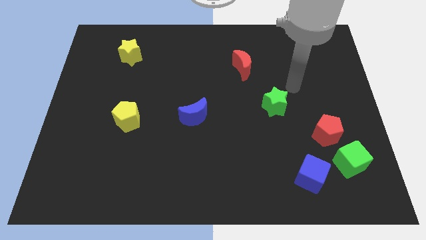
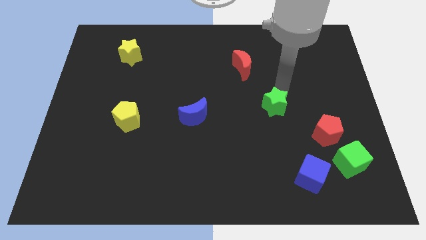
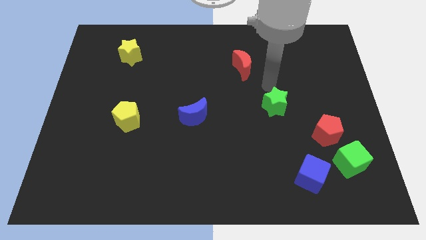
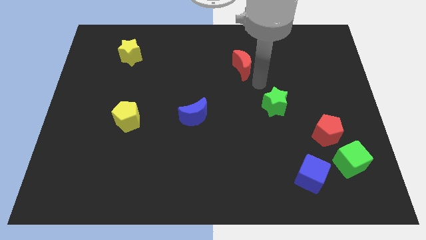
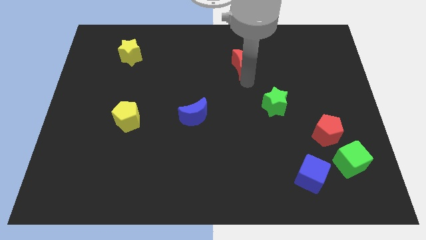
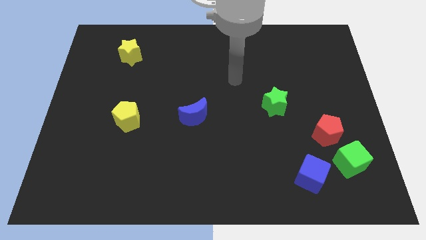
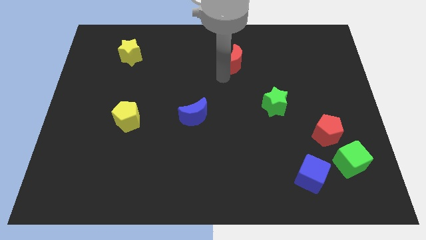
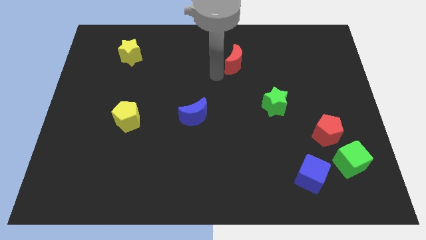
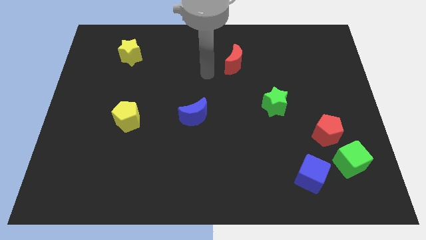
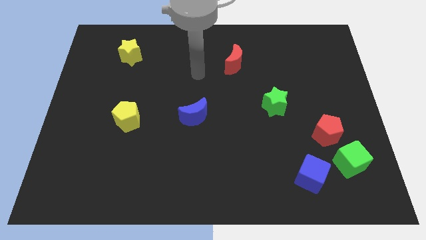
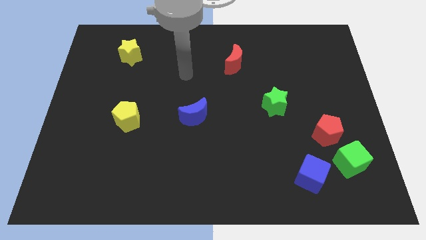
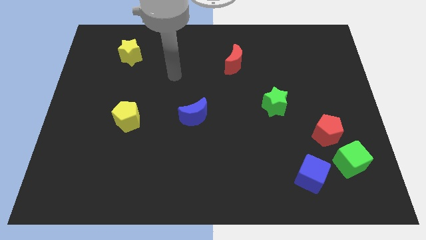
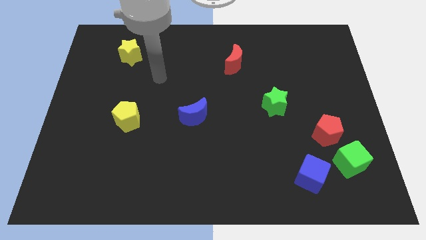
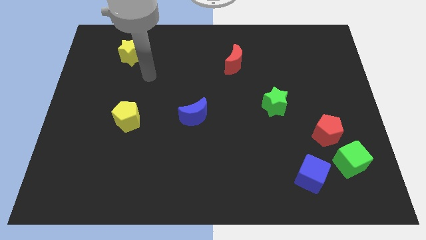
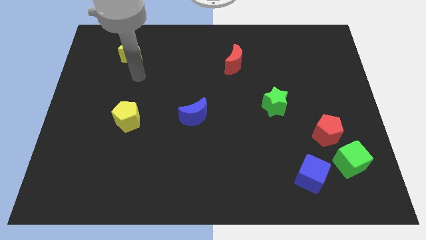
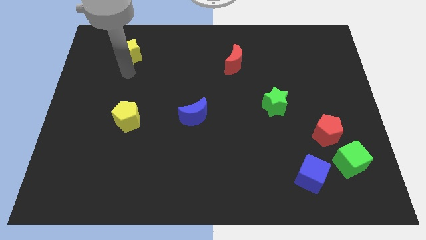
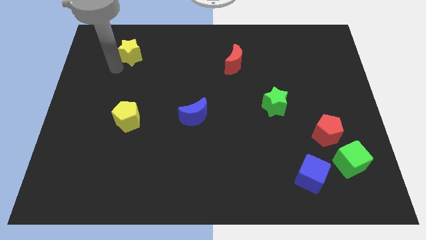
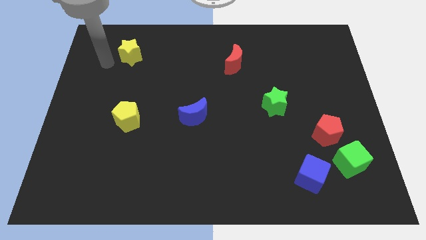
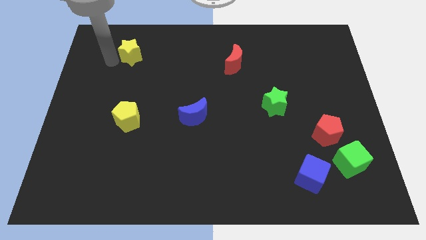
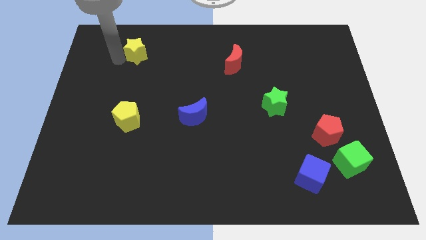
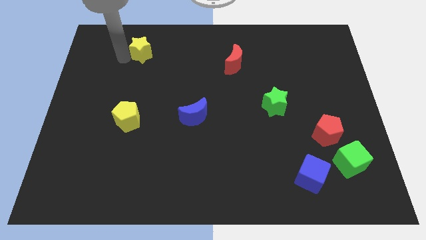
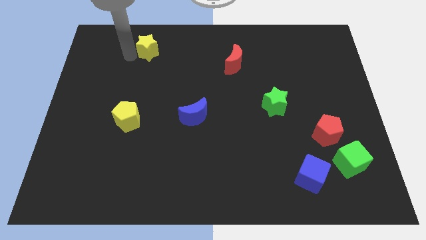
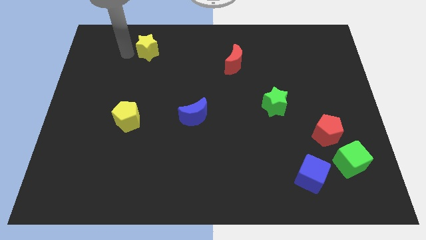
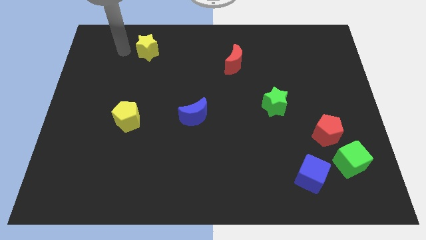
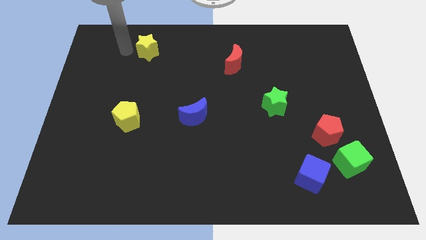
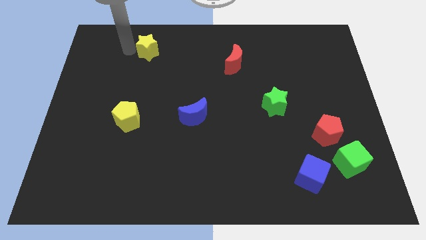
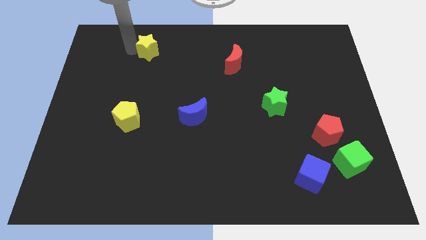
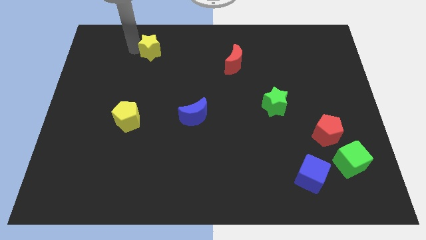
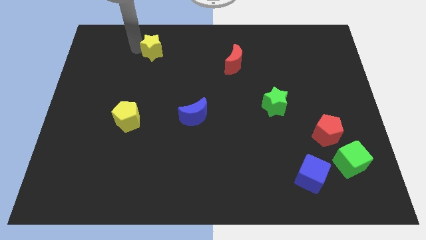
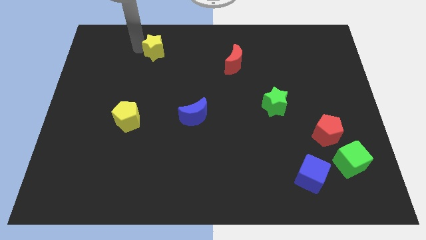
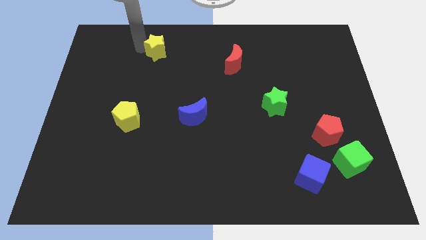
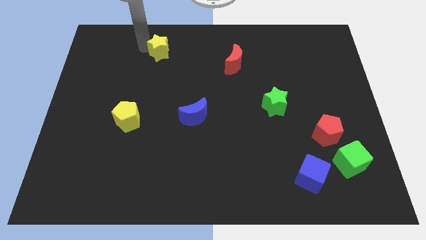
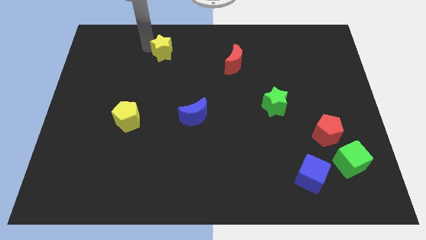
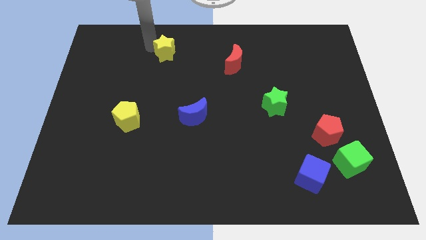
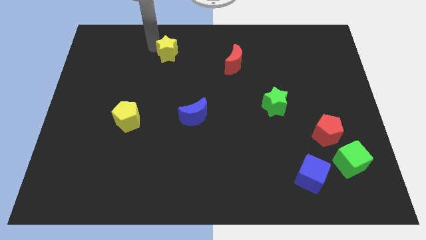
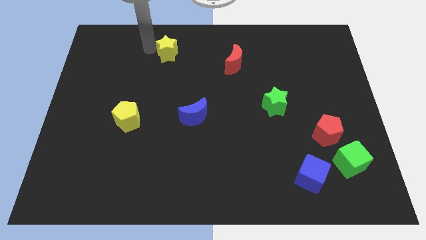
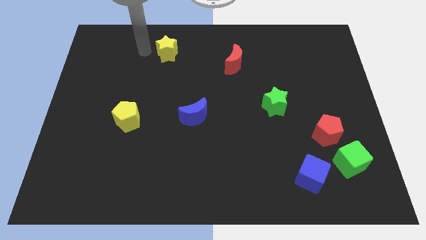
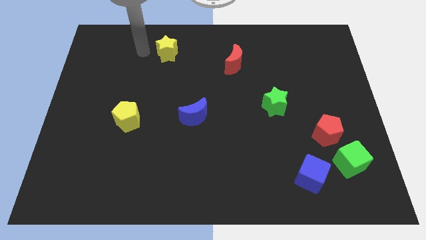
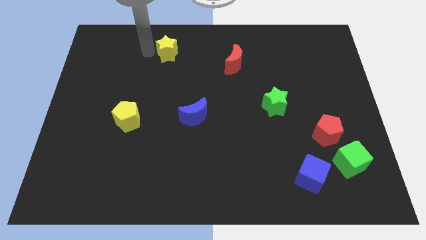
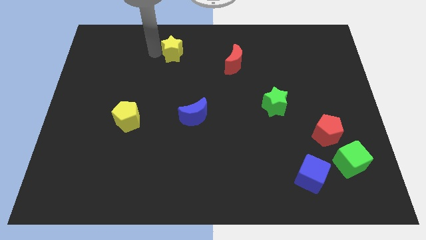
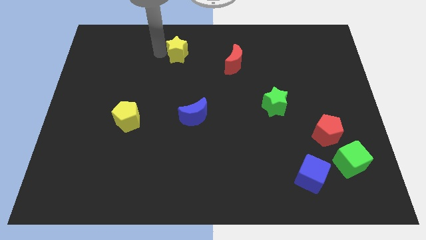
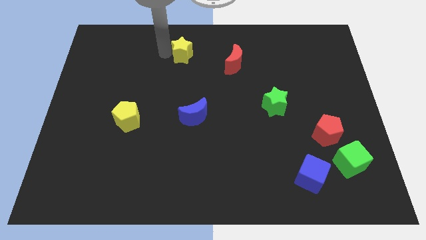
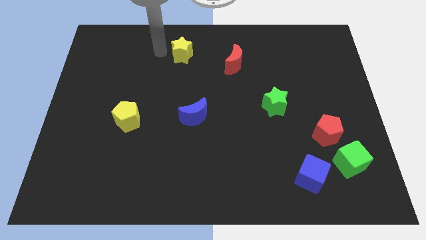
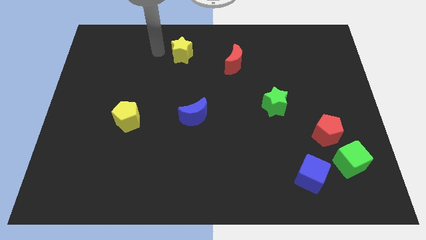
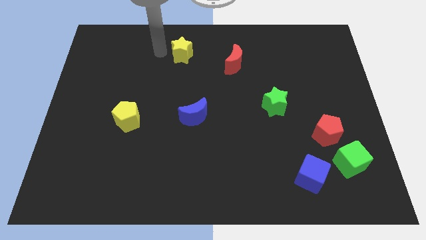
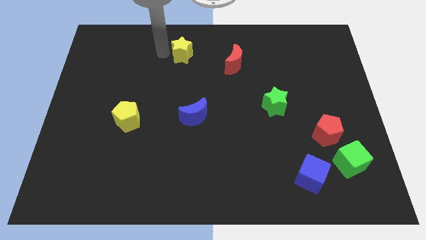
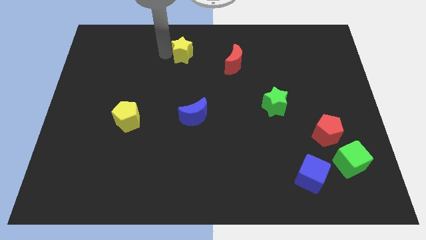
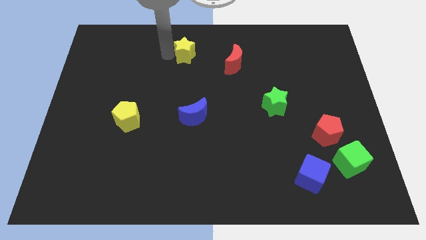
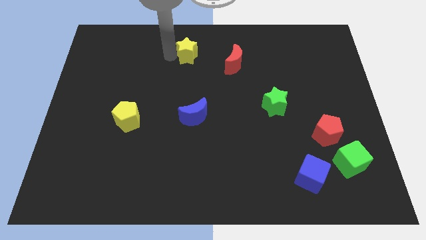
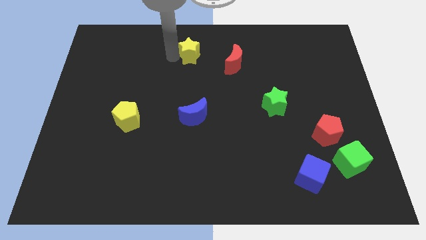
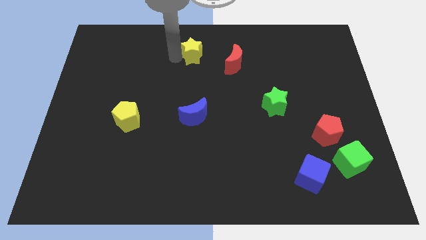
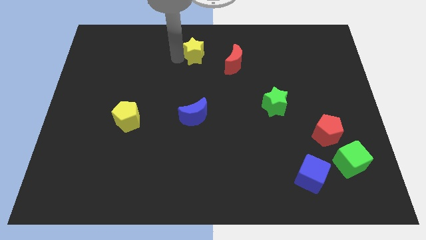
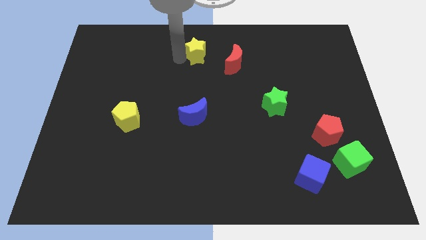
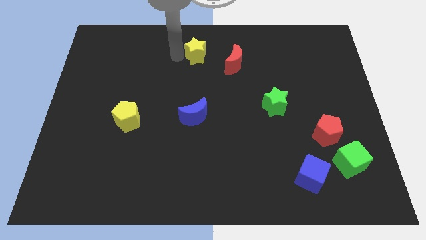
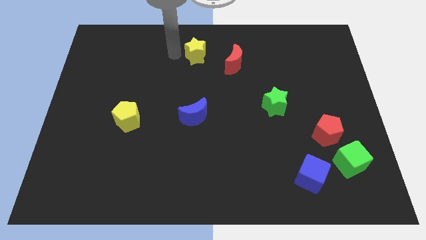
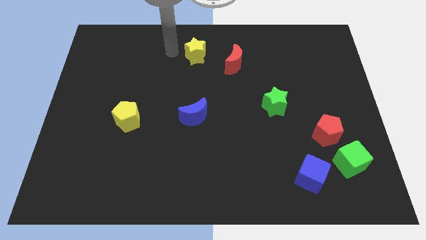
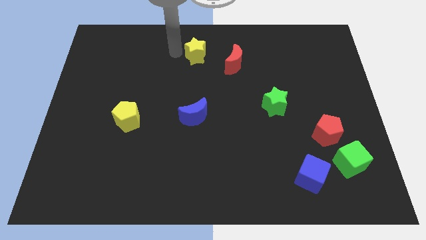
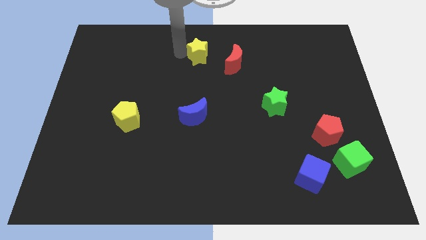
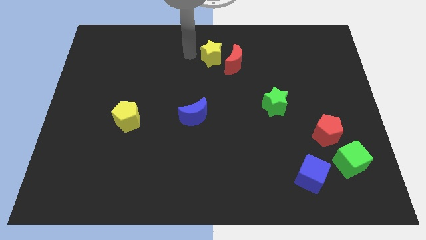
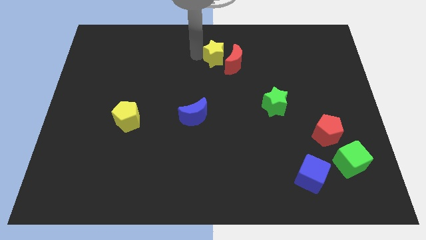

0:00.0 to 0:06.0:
push the yellow star to the red moon

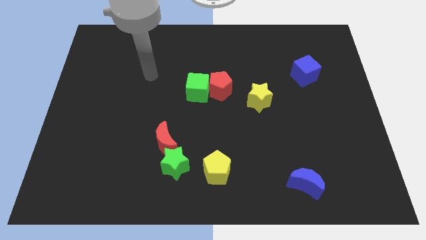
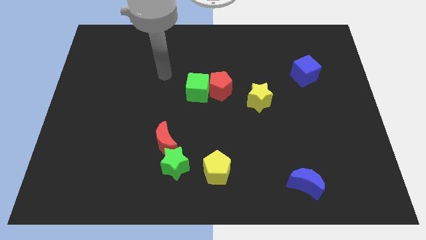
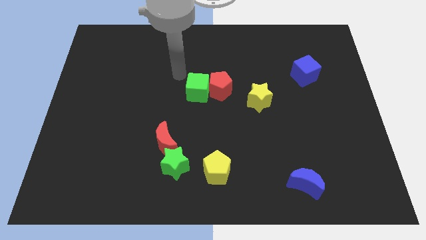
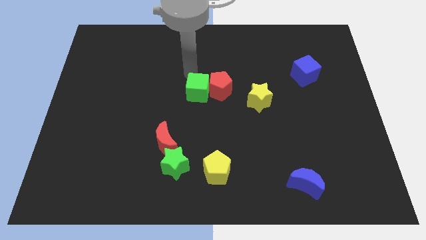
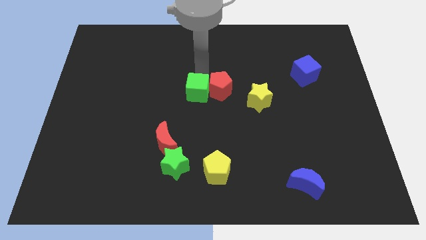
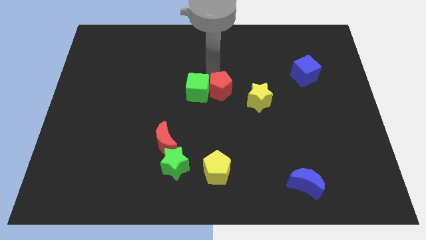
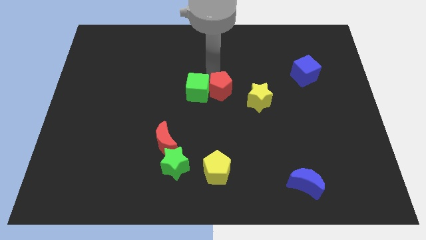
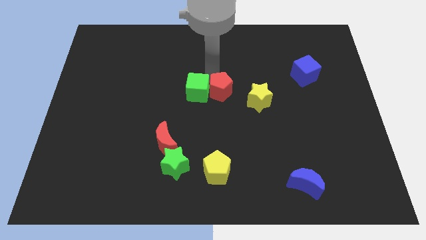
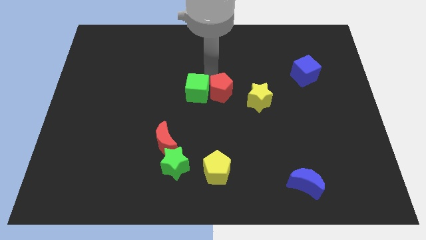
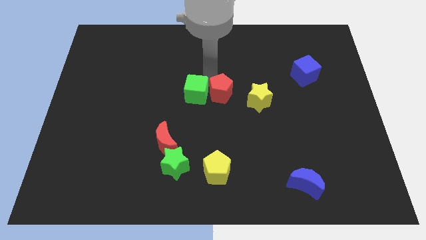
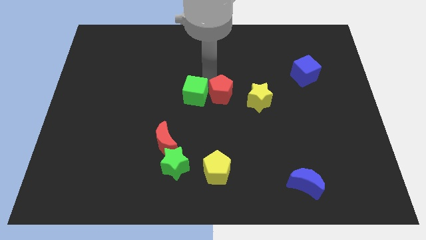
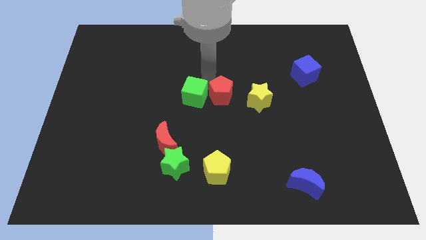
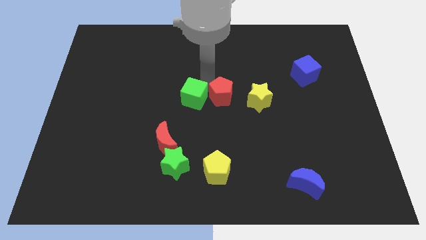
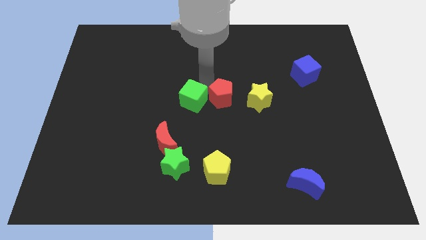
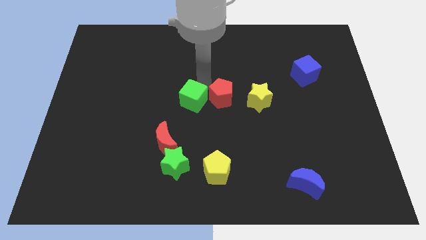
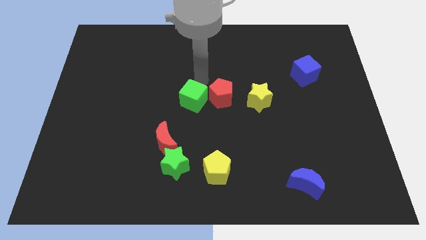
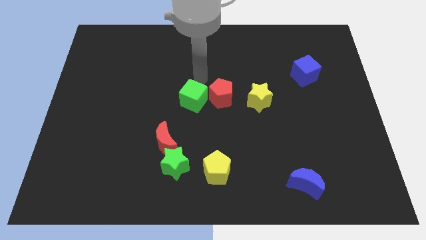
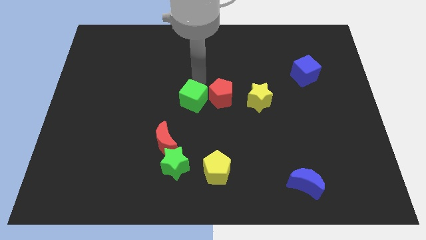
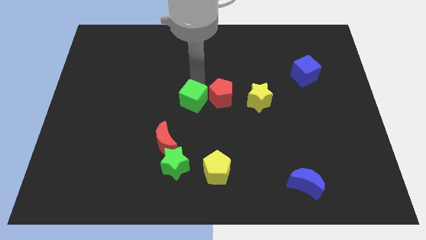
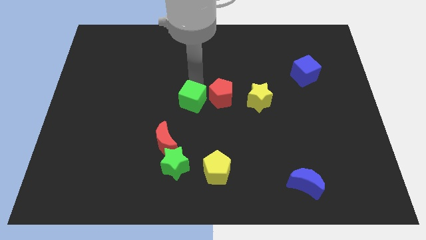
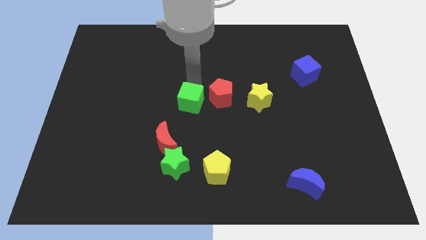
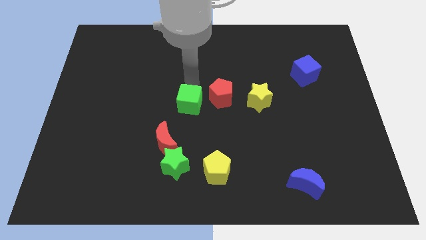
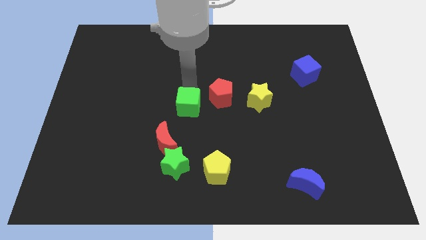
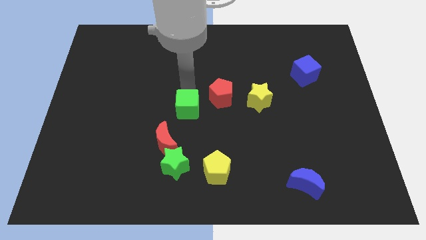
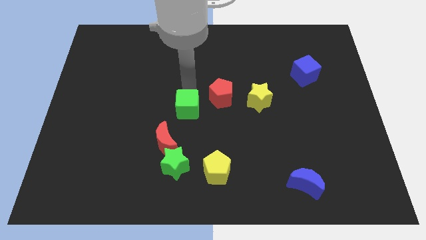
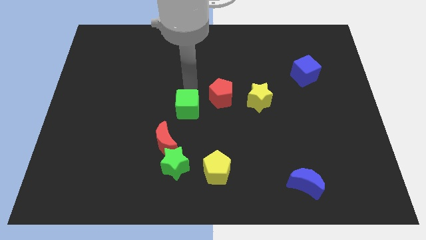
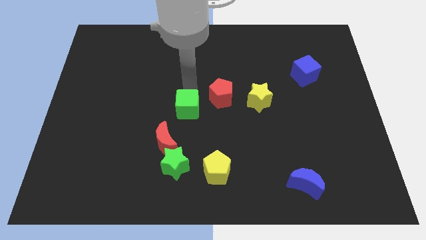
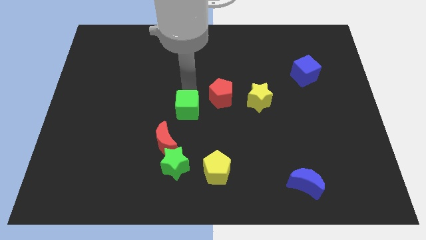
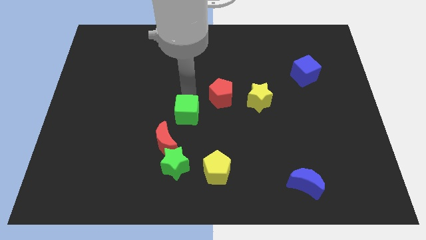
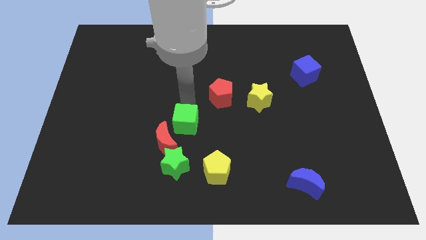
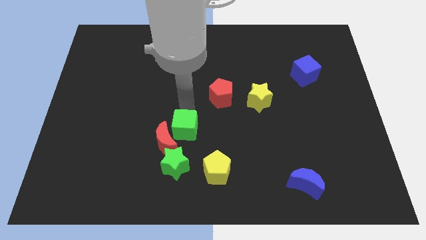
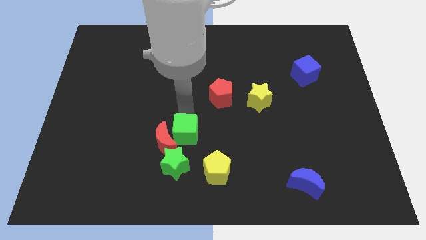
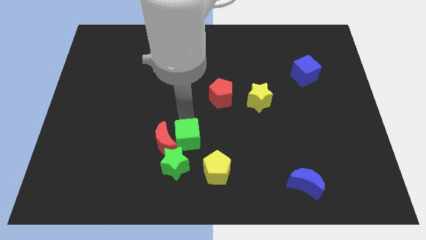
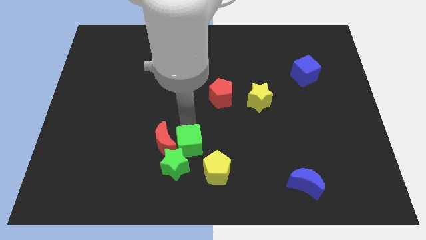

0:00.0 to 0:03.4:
move the green cube to the green star
